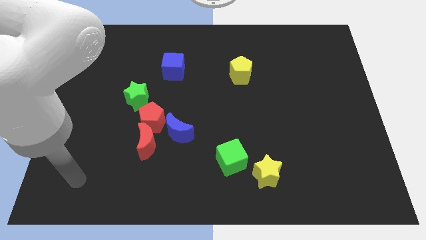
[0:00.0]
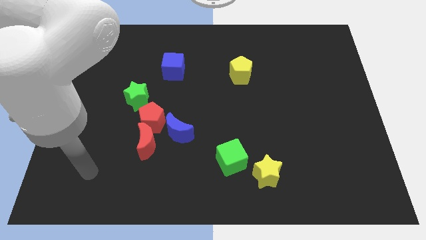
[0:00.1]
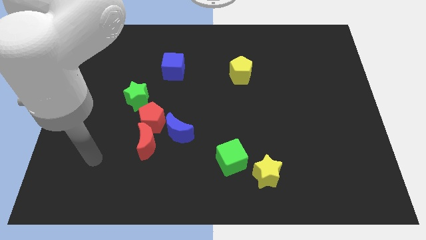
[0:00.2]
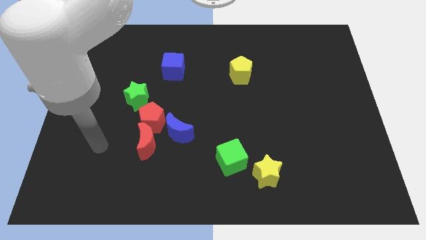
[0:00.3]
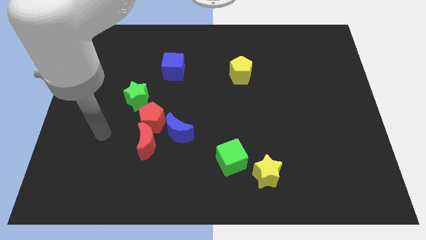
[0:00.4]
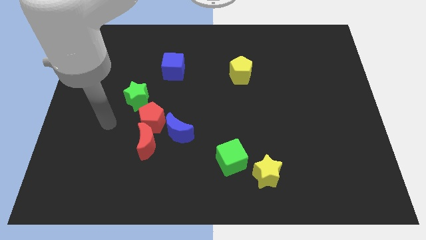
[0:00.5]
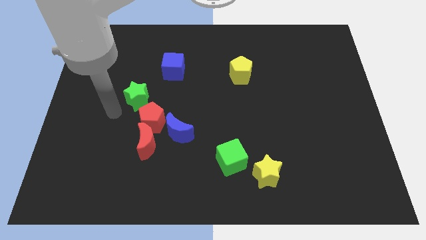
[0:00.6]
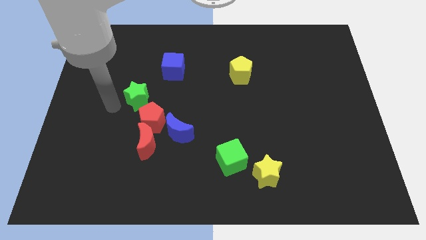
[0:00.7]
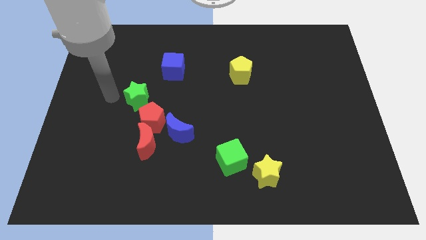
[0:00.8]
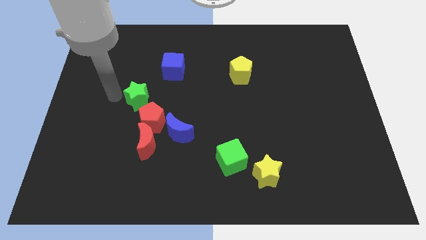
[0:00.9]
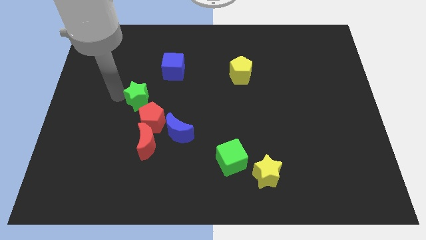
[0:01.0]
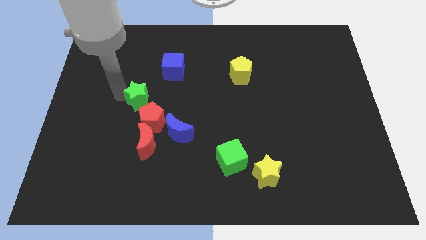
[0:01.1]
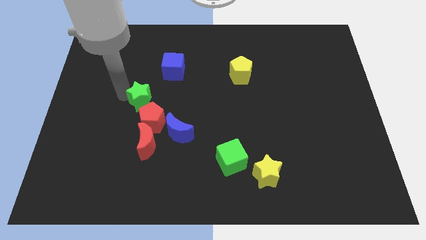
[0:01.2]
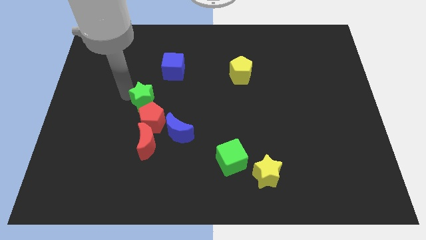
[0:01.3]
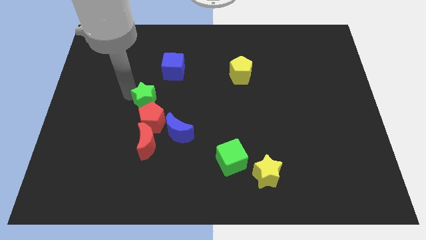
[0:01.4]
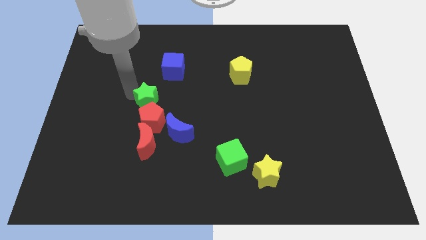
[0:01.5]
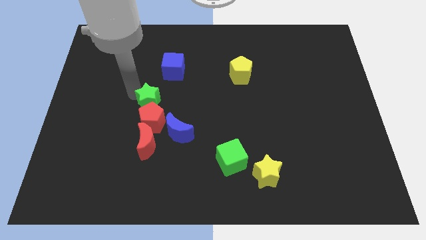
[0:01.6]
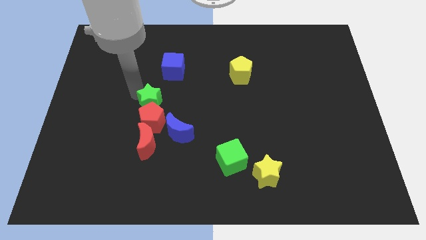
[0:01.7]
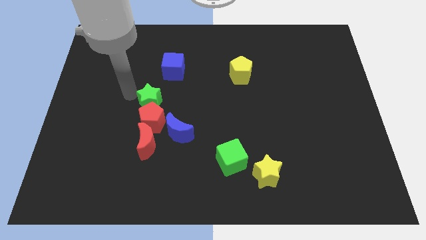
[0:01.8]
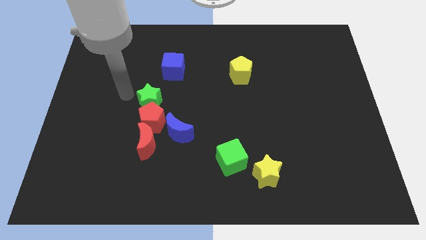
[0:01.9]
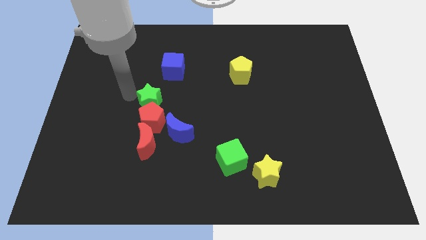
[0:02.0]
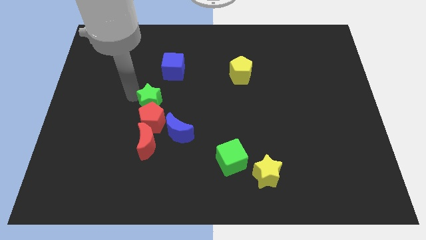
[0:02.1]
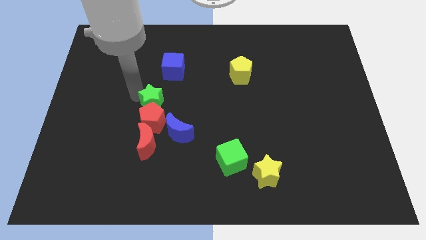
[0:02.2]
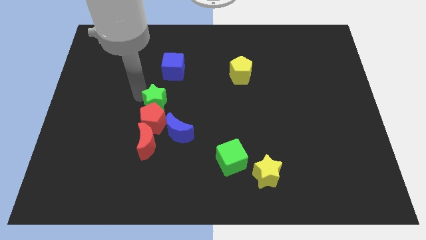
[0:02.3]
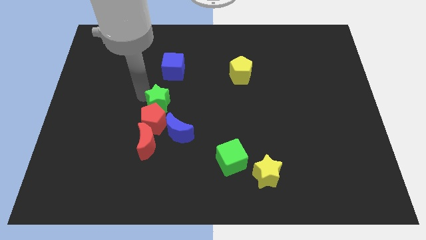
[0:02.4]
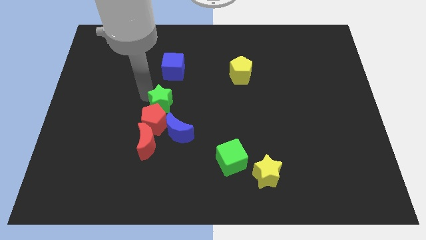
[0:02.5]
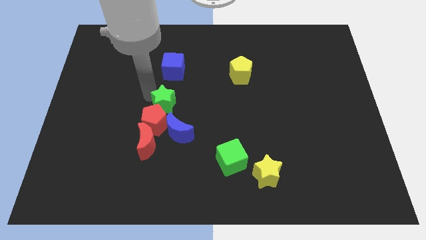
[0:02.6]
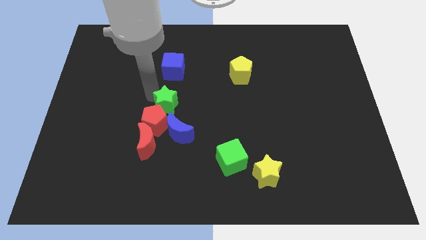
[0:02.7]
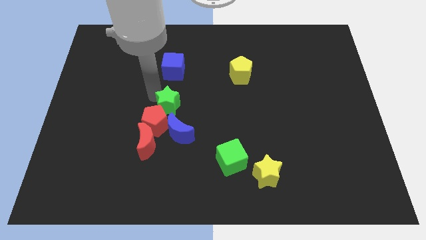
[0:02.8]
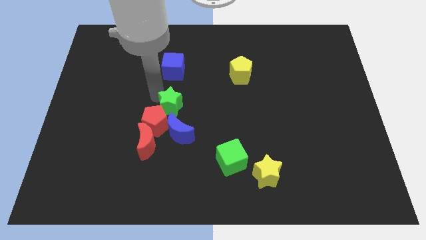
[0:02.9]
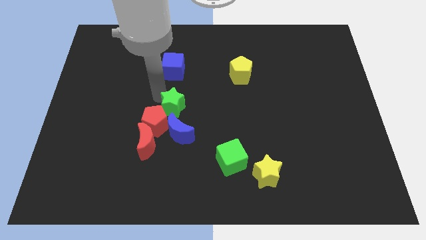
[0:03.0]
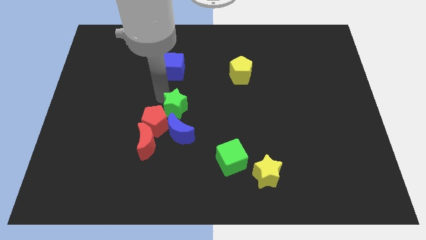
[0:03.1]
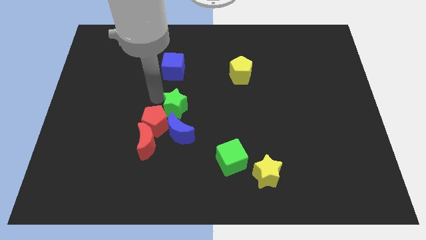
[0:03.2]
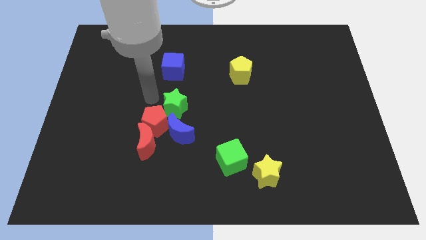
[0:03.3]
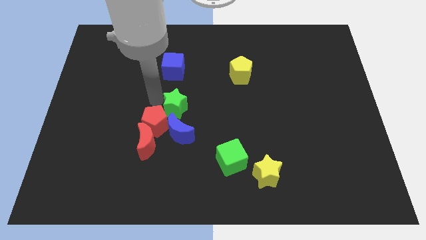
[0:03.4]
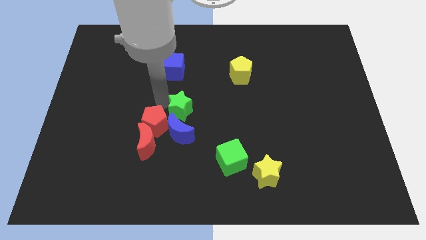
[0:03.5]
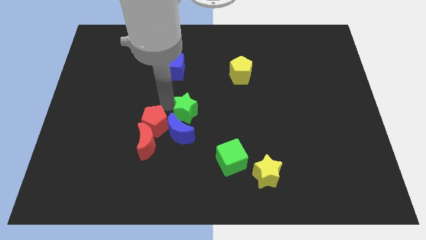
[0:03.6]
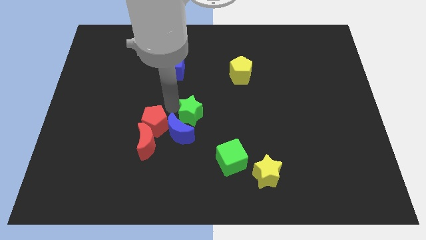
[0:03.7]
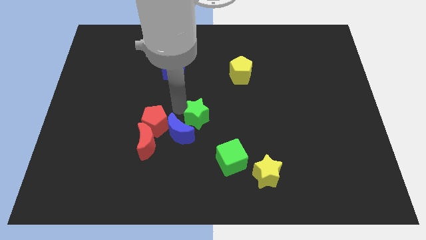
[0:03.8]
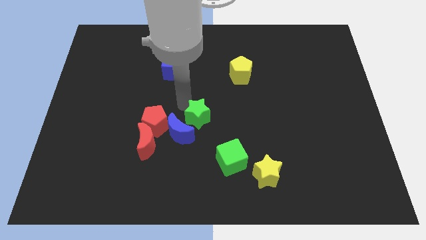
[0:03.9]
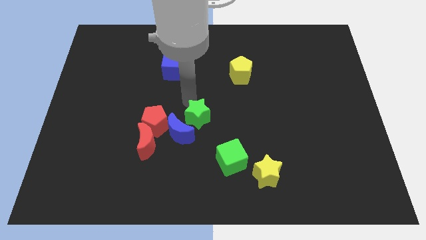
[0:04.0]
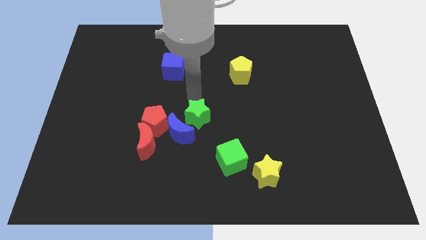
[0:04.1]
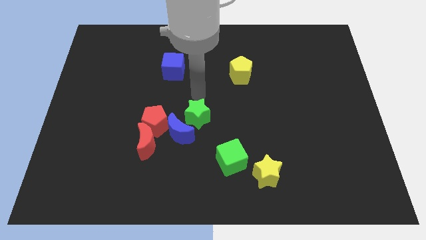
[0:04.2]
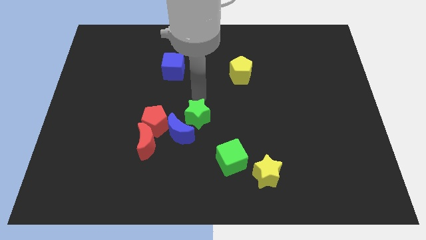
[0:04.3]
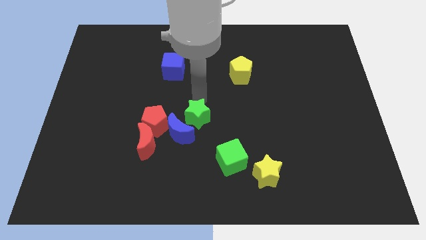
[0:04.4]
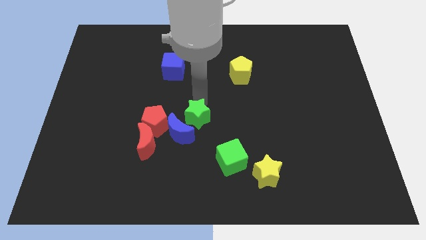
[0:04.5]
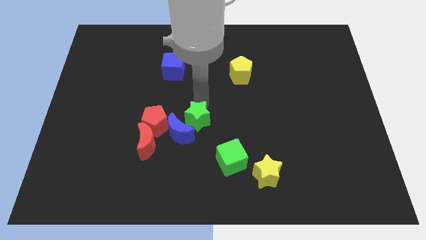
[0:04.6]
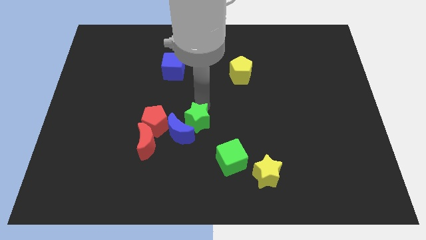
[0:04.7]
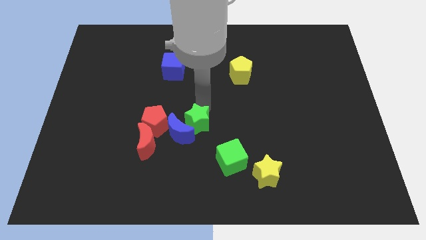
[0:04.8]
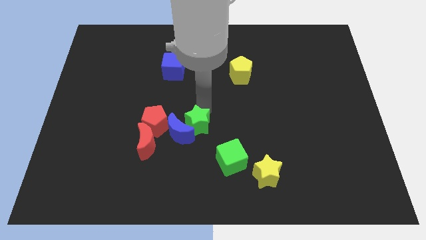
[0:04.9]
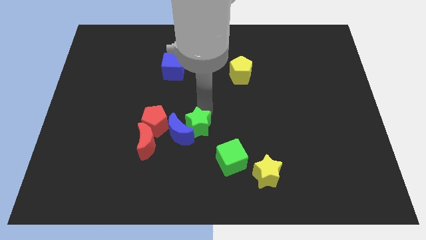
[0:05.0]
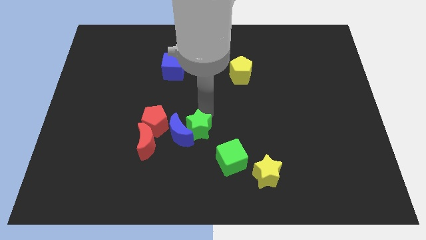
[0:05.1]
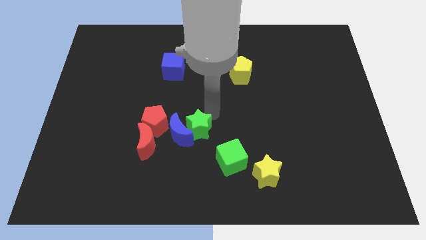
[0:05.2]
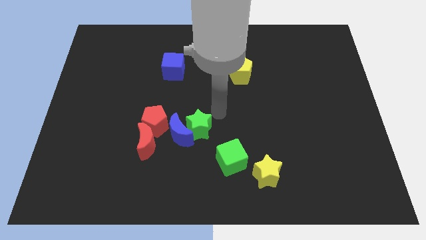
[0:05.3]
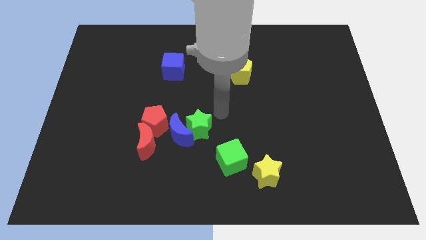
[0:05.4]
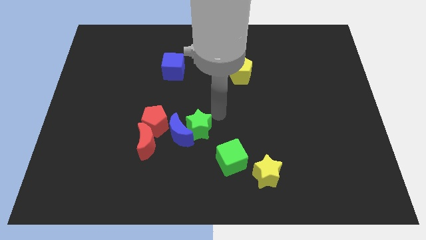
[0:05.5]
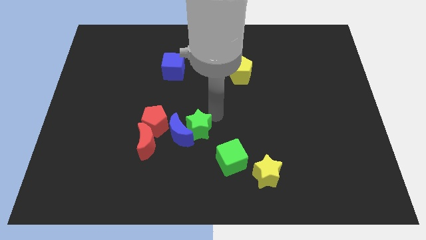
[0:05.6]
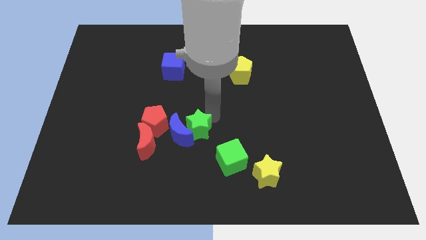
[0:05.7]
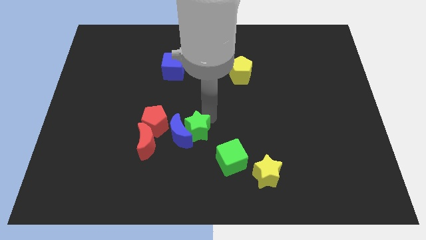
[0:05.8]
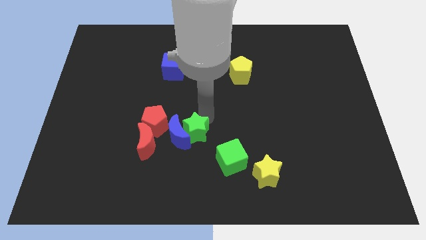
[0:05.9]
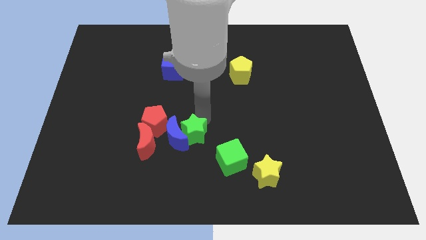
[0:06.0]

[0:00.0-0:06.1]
slide the green star to the bottom right of the red pentagon

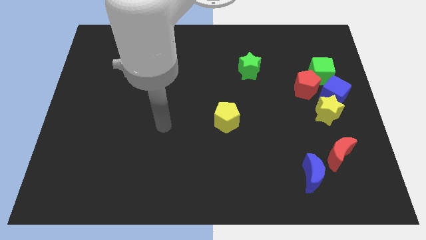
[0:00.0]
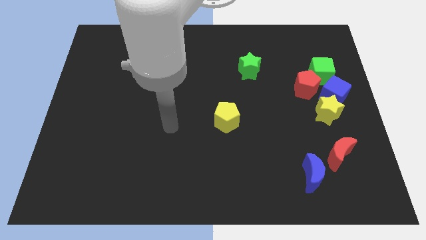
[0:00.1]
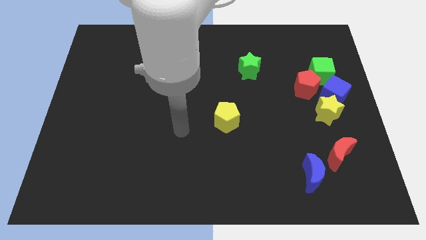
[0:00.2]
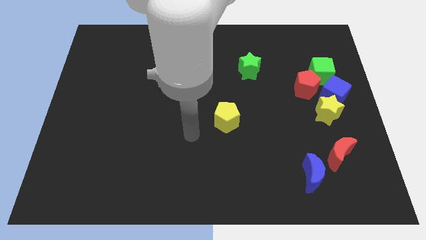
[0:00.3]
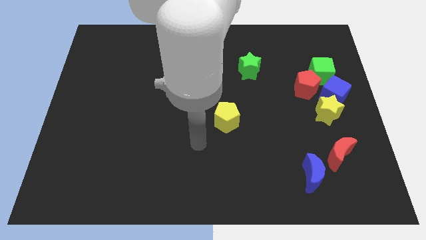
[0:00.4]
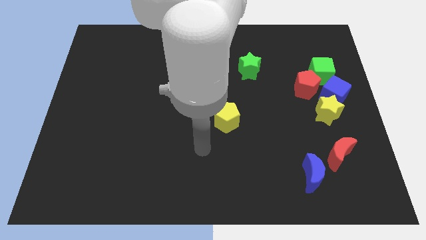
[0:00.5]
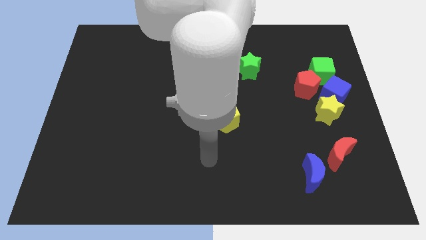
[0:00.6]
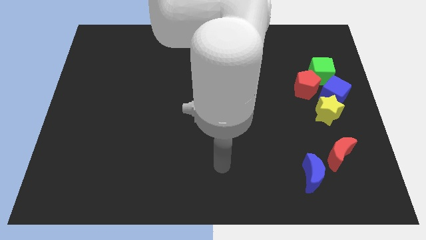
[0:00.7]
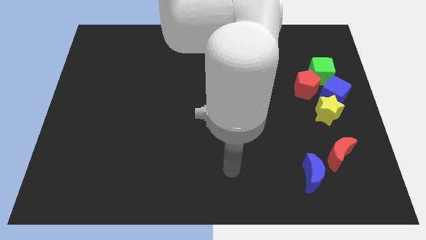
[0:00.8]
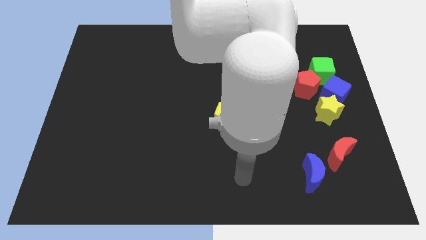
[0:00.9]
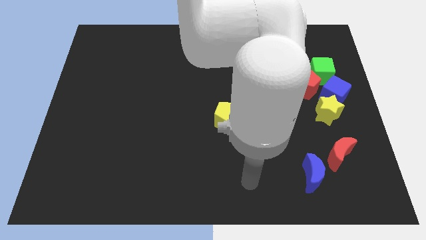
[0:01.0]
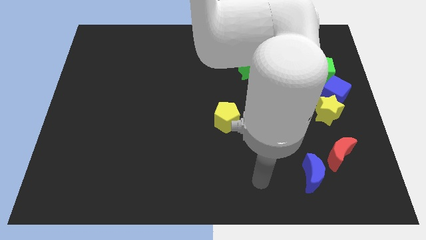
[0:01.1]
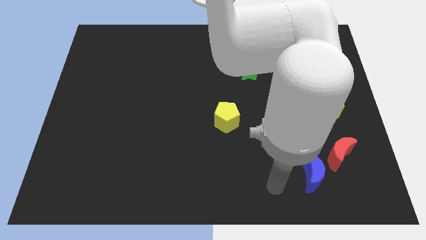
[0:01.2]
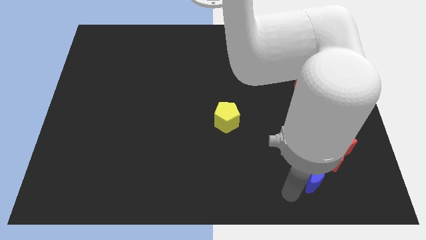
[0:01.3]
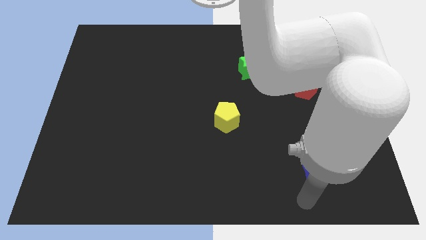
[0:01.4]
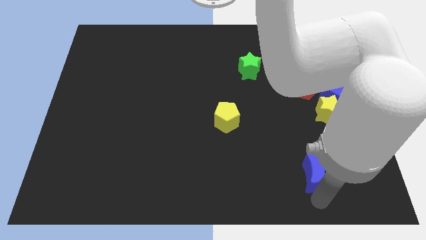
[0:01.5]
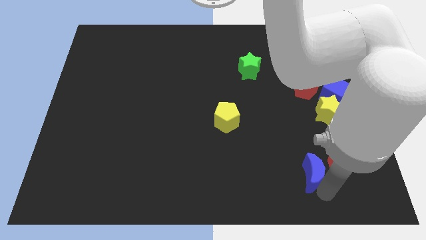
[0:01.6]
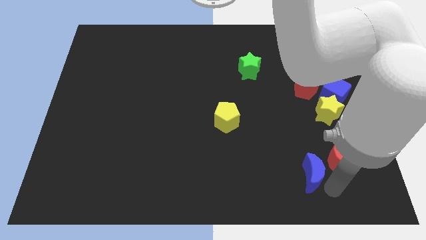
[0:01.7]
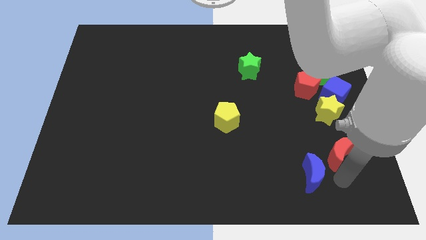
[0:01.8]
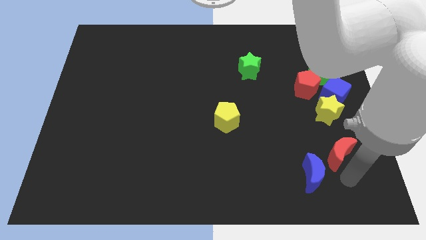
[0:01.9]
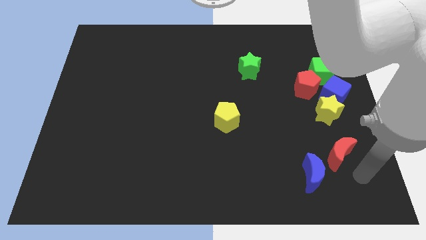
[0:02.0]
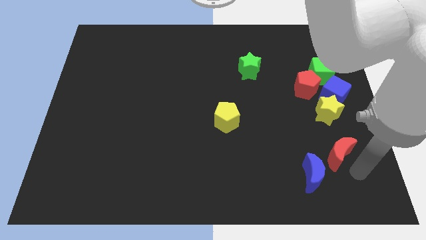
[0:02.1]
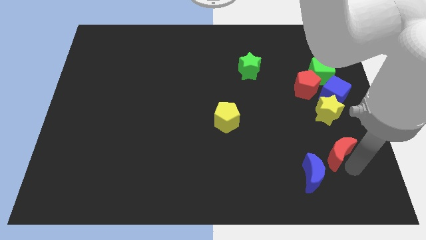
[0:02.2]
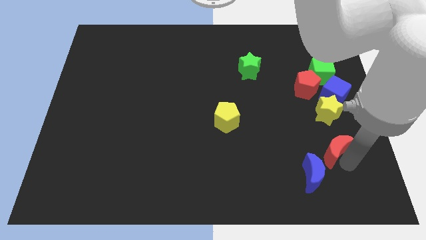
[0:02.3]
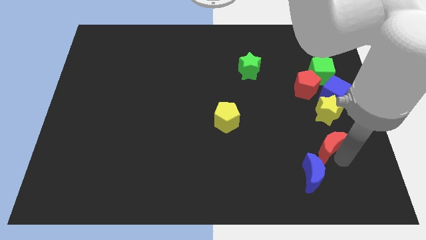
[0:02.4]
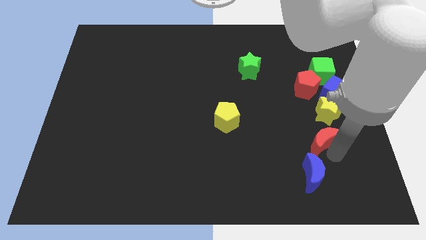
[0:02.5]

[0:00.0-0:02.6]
move the red moon to the bottom of the red pentagon
